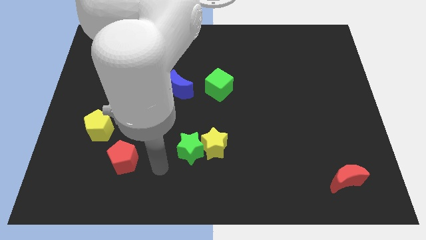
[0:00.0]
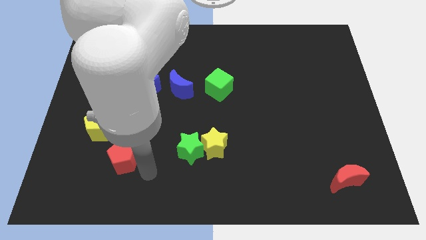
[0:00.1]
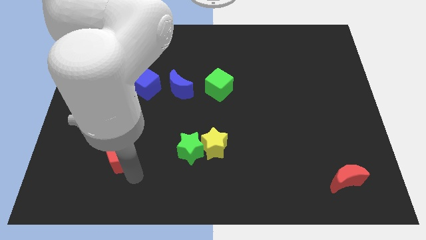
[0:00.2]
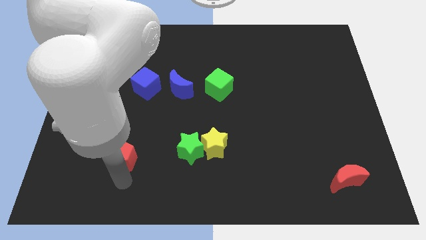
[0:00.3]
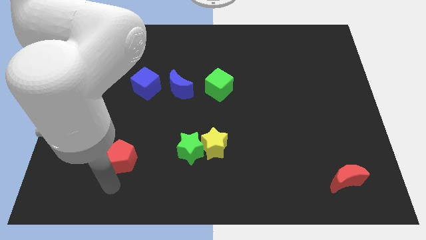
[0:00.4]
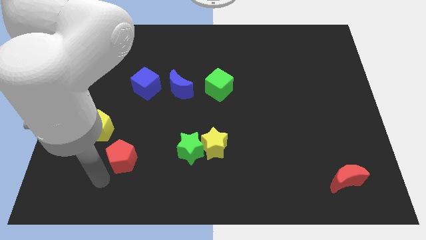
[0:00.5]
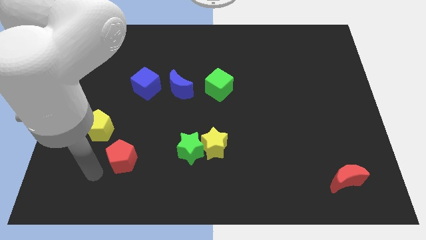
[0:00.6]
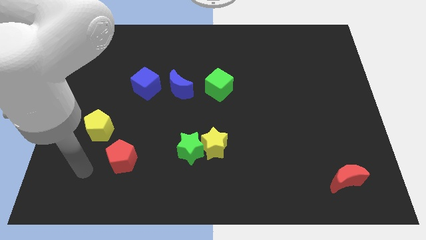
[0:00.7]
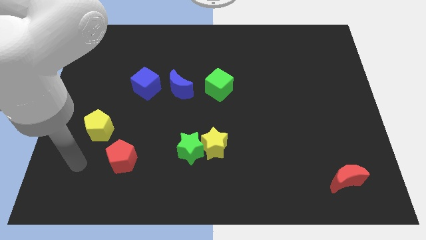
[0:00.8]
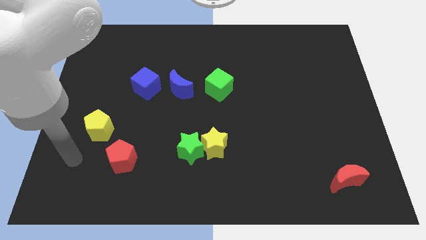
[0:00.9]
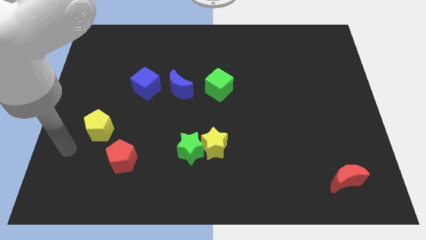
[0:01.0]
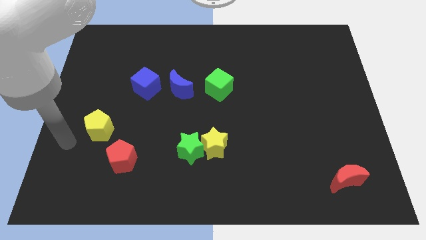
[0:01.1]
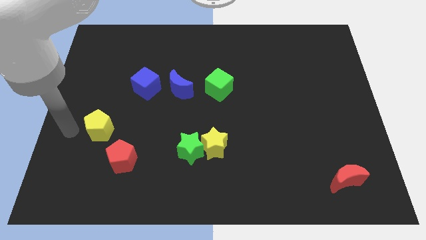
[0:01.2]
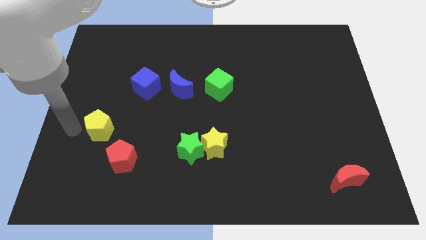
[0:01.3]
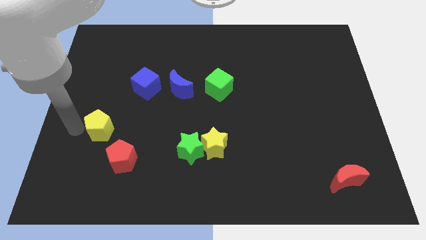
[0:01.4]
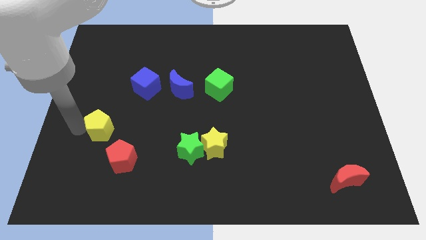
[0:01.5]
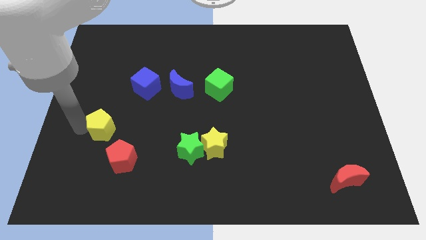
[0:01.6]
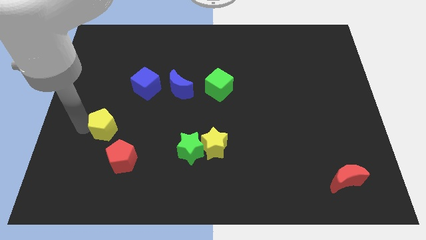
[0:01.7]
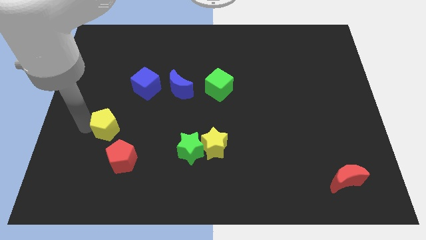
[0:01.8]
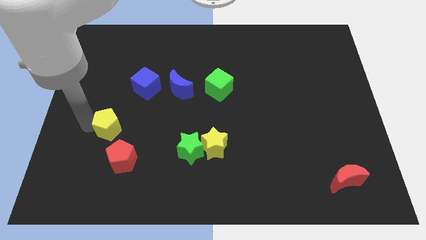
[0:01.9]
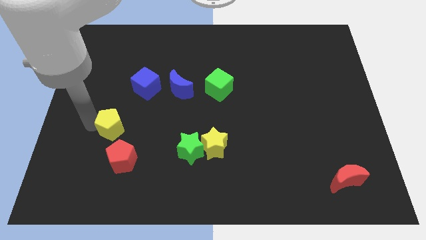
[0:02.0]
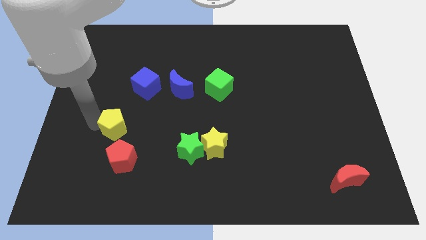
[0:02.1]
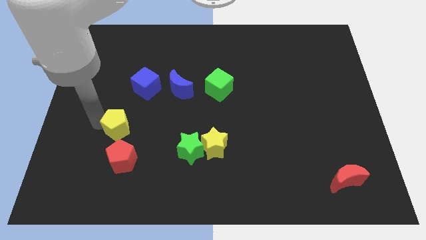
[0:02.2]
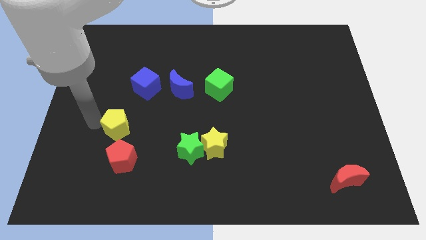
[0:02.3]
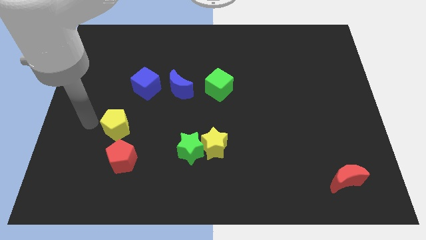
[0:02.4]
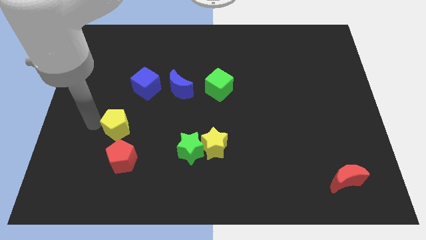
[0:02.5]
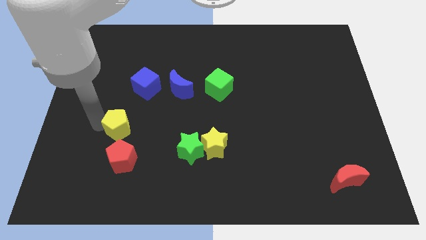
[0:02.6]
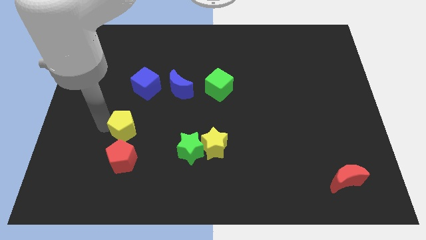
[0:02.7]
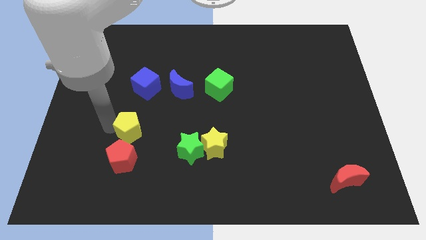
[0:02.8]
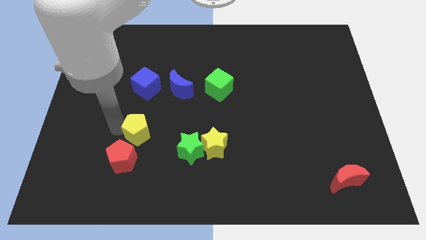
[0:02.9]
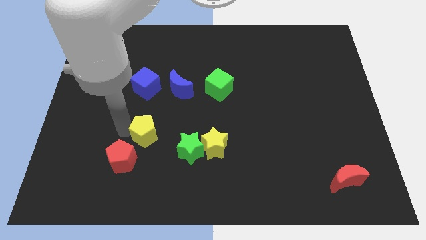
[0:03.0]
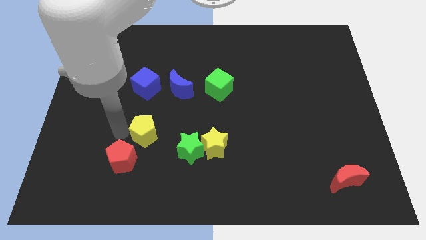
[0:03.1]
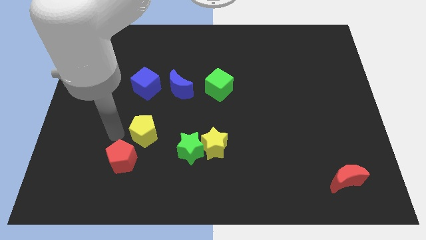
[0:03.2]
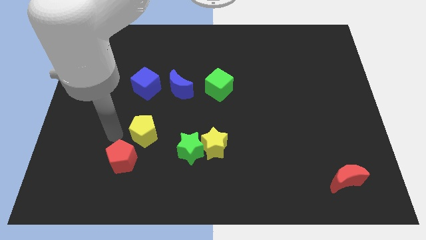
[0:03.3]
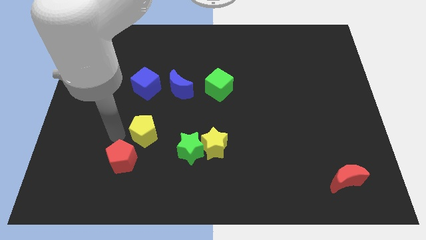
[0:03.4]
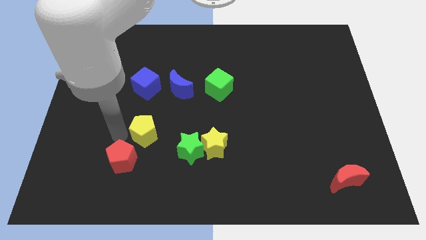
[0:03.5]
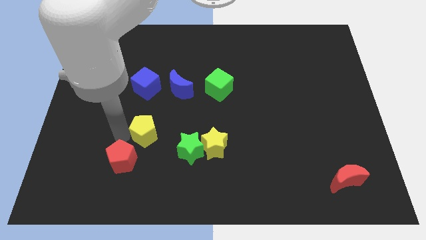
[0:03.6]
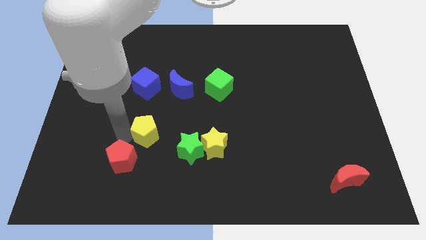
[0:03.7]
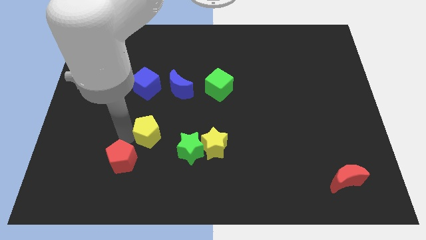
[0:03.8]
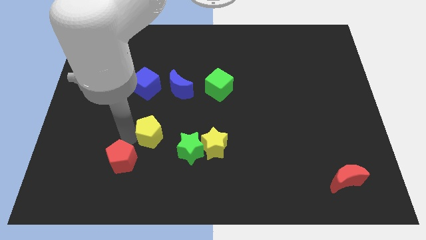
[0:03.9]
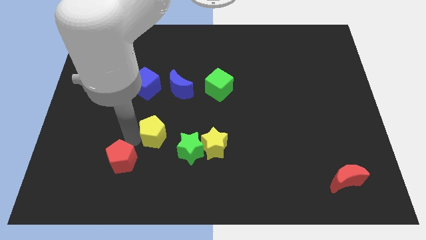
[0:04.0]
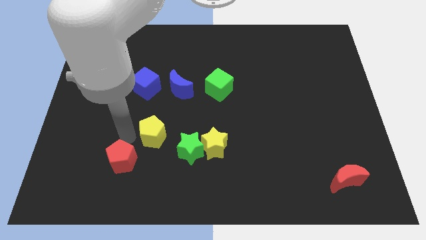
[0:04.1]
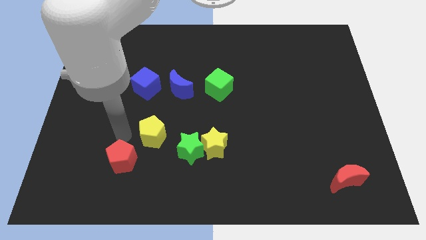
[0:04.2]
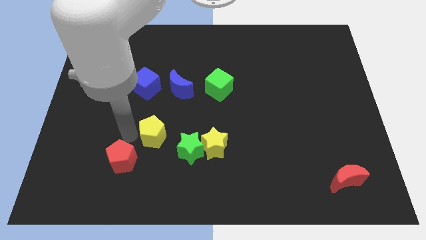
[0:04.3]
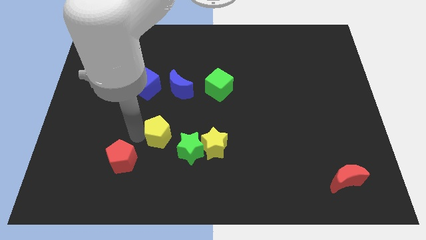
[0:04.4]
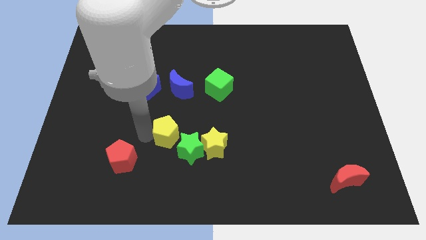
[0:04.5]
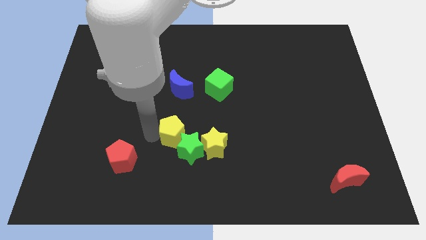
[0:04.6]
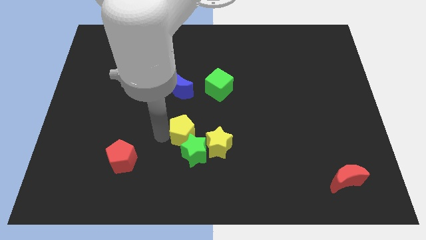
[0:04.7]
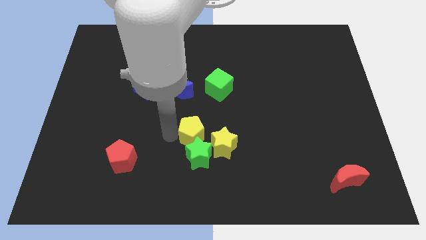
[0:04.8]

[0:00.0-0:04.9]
push the yellow pentagon to the right

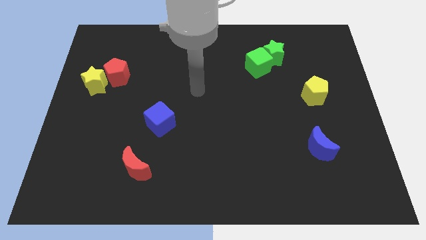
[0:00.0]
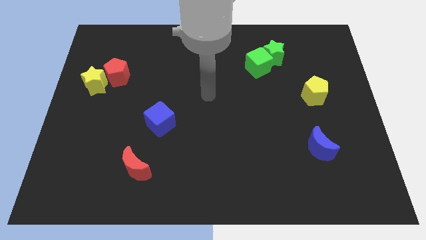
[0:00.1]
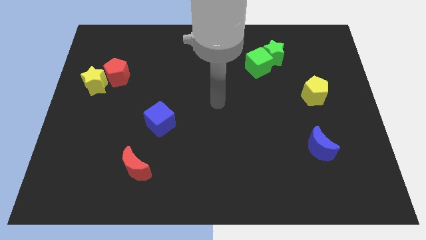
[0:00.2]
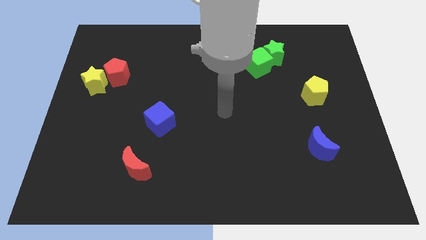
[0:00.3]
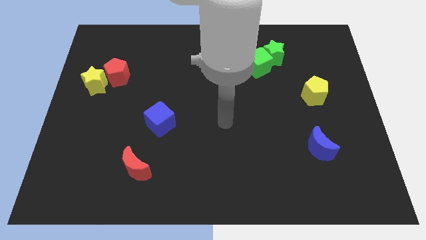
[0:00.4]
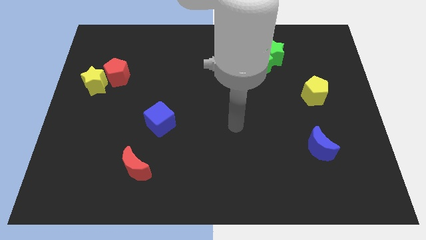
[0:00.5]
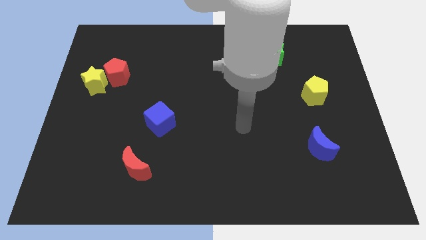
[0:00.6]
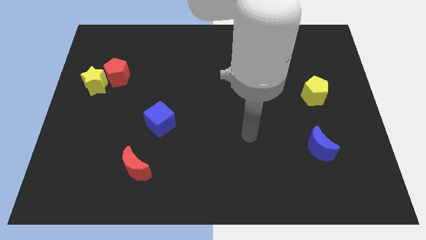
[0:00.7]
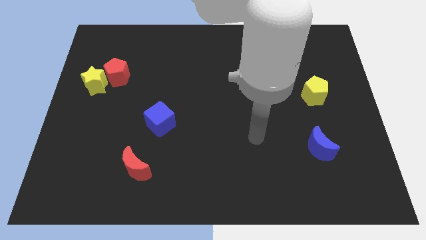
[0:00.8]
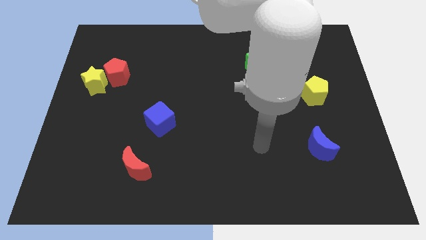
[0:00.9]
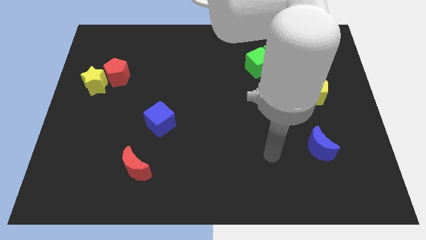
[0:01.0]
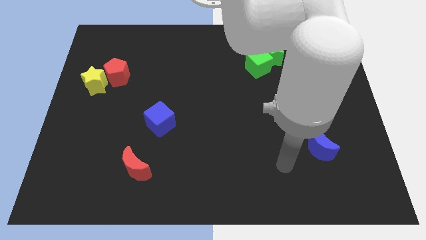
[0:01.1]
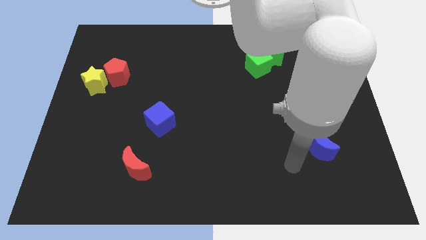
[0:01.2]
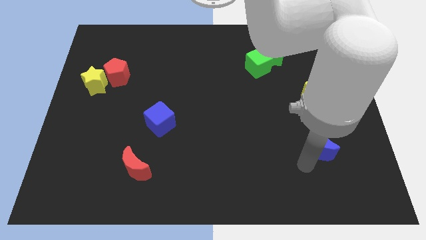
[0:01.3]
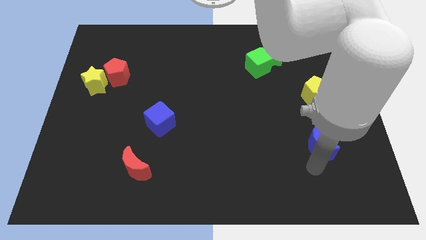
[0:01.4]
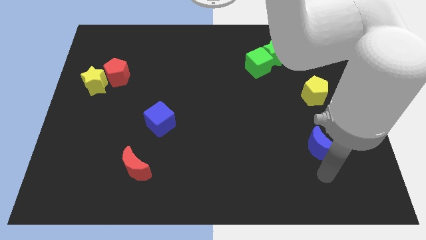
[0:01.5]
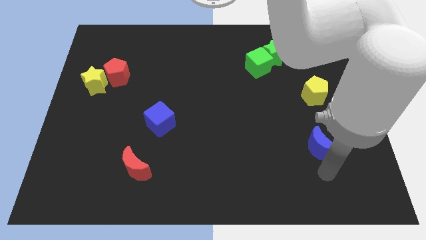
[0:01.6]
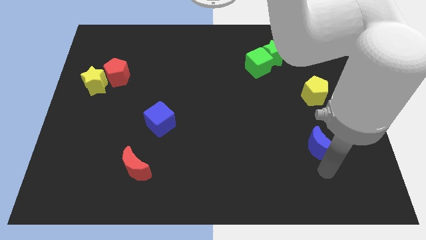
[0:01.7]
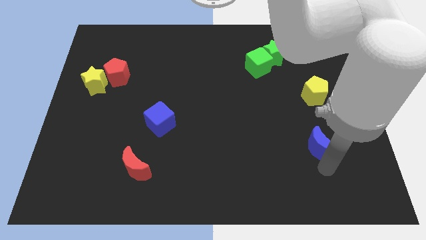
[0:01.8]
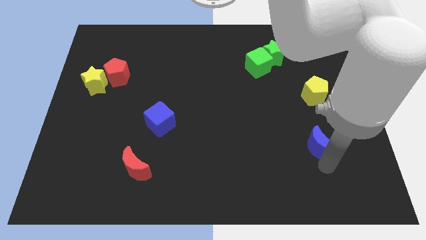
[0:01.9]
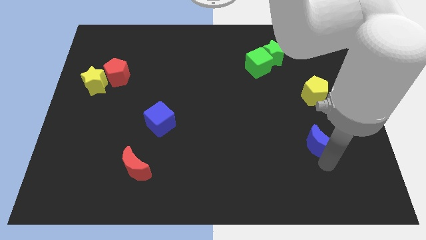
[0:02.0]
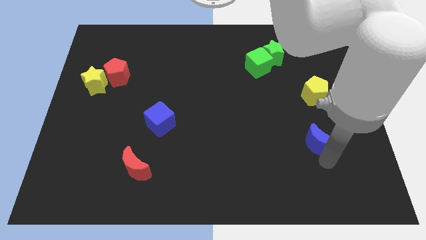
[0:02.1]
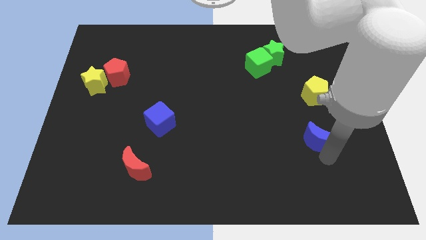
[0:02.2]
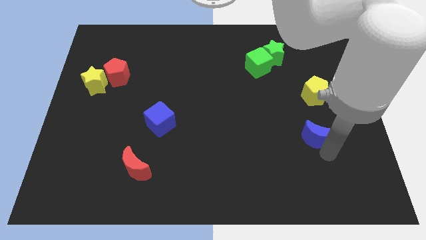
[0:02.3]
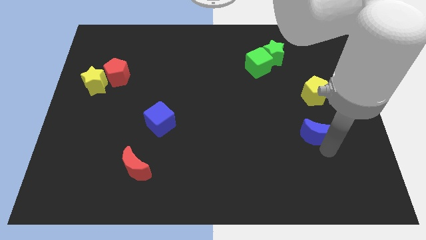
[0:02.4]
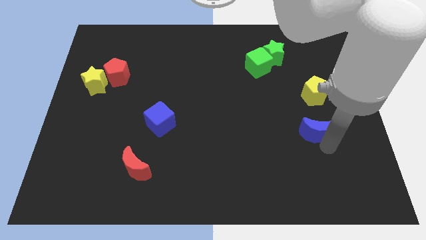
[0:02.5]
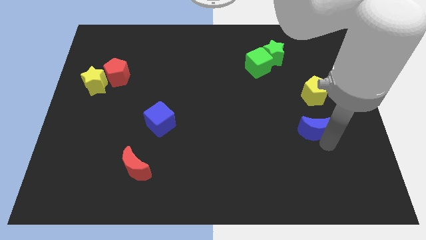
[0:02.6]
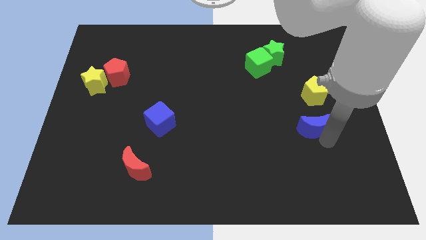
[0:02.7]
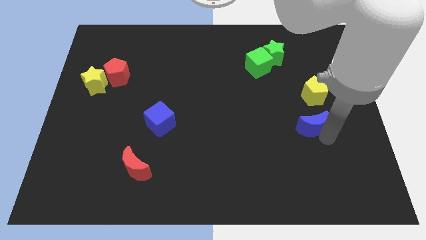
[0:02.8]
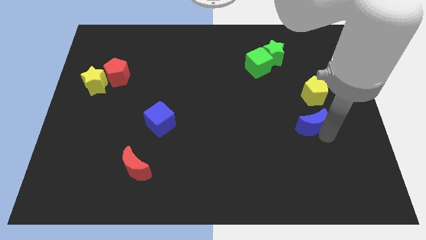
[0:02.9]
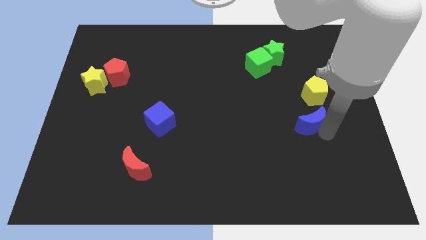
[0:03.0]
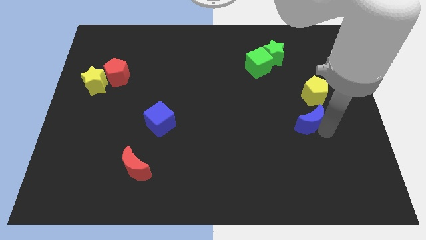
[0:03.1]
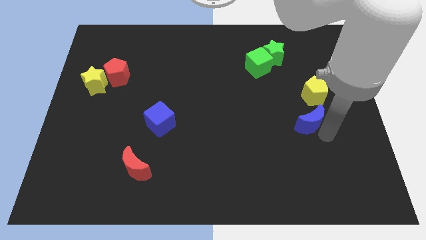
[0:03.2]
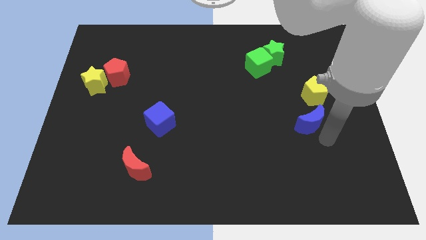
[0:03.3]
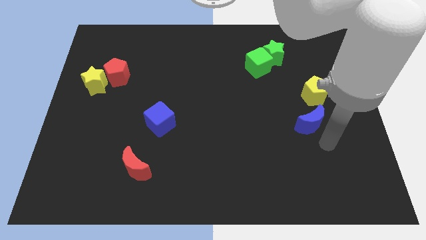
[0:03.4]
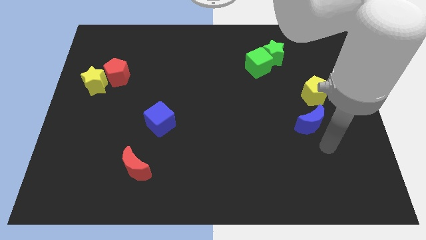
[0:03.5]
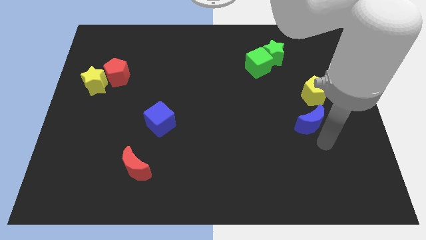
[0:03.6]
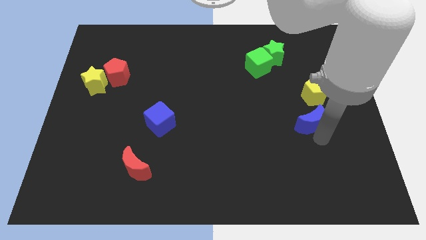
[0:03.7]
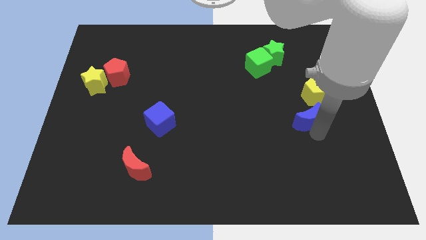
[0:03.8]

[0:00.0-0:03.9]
push the blue moon a bit up
